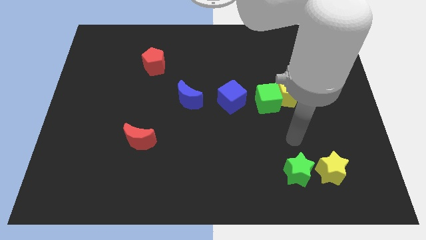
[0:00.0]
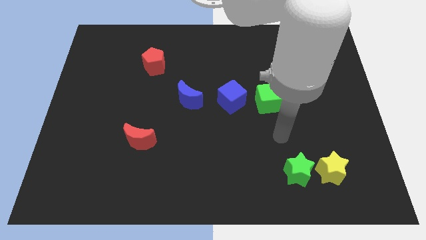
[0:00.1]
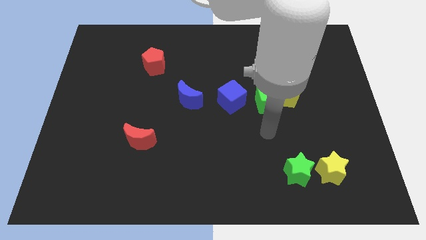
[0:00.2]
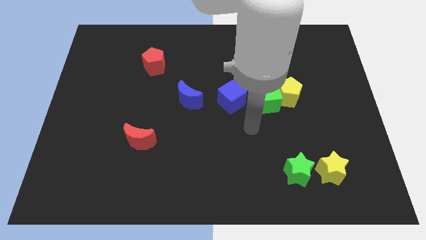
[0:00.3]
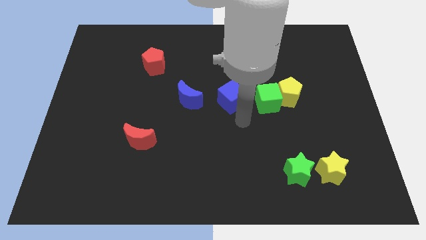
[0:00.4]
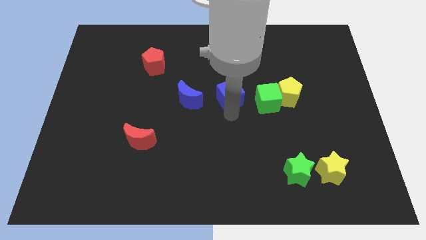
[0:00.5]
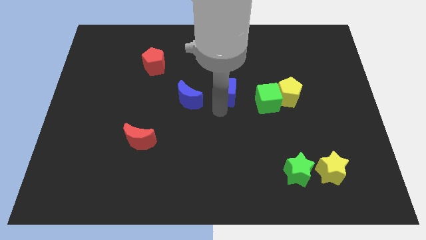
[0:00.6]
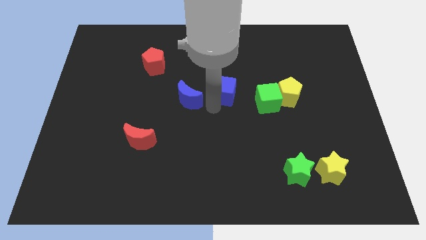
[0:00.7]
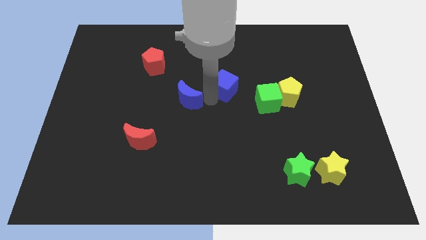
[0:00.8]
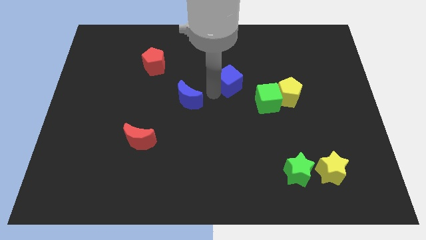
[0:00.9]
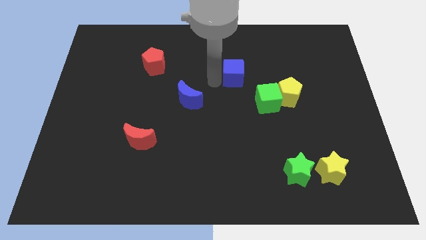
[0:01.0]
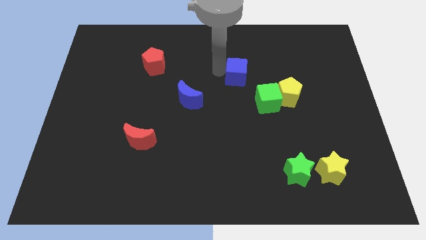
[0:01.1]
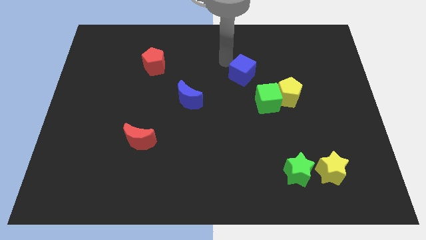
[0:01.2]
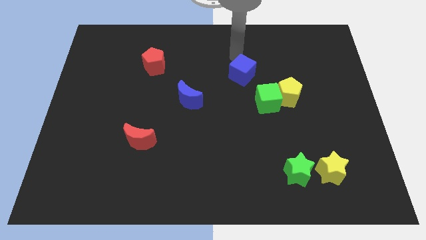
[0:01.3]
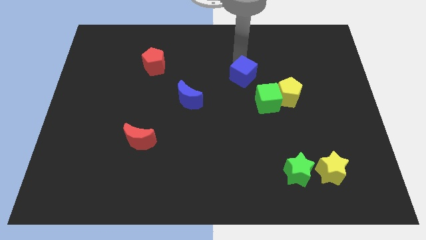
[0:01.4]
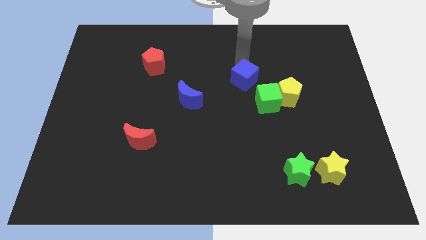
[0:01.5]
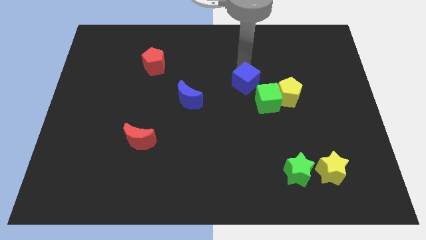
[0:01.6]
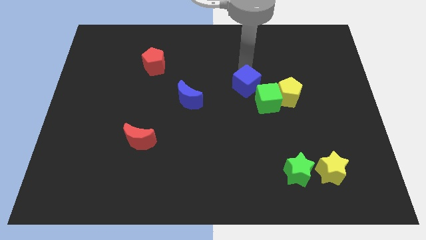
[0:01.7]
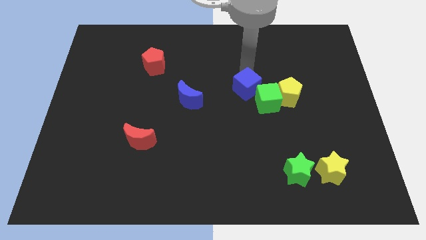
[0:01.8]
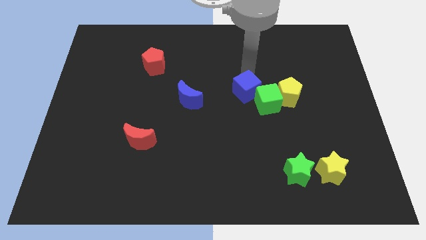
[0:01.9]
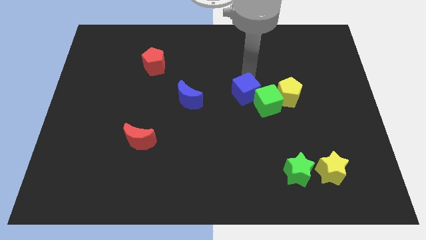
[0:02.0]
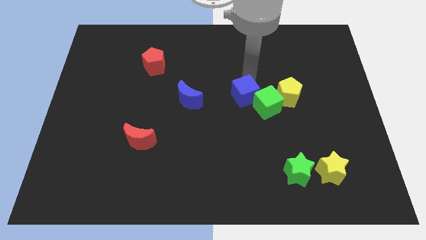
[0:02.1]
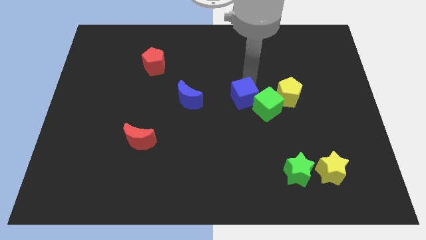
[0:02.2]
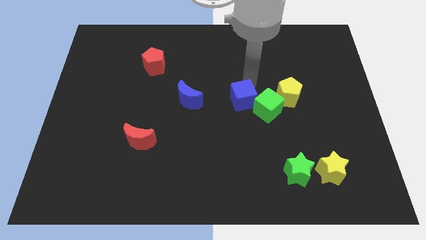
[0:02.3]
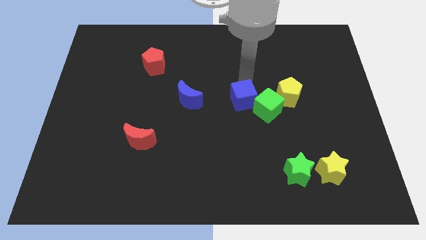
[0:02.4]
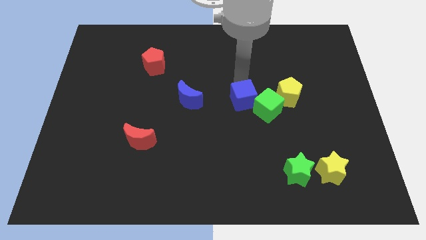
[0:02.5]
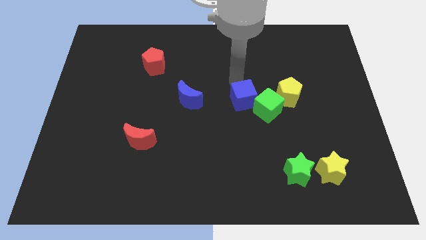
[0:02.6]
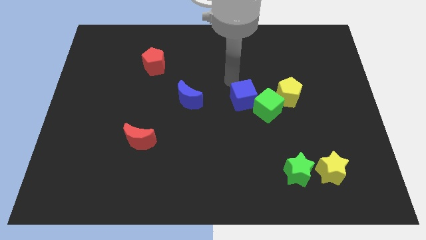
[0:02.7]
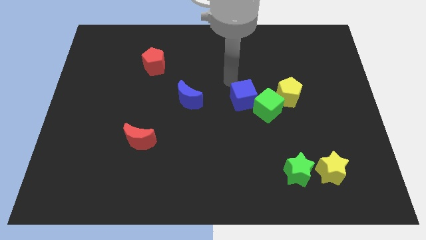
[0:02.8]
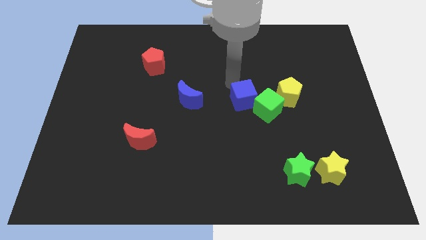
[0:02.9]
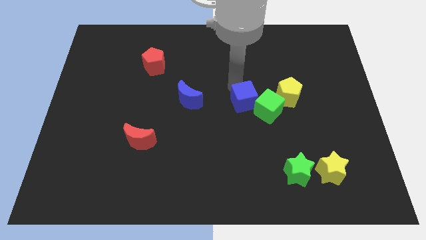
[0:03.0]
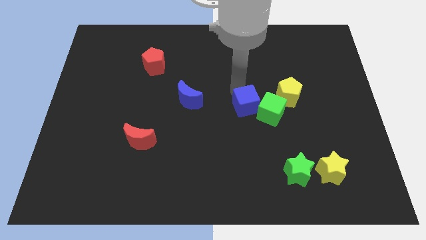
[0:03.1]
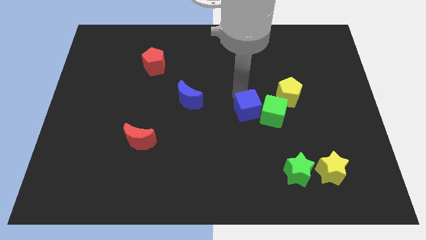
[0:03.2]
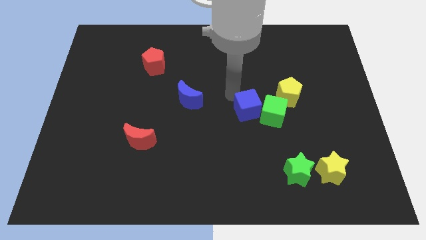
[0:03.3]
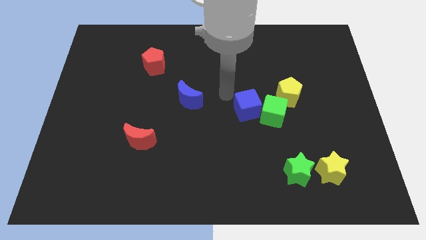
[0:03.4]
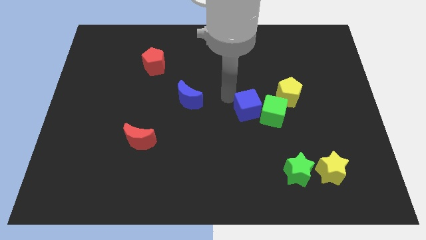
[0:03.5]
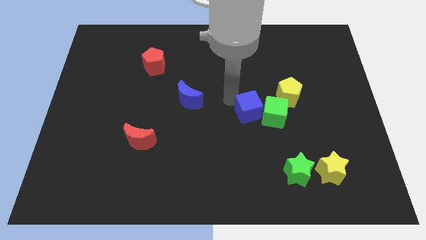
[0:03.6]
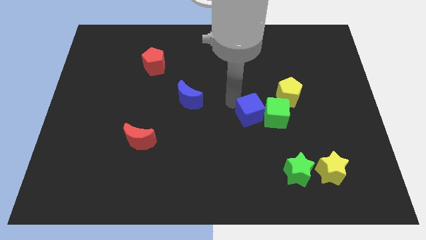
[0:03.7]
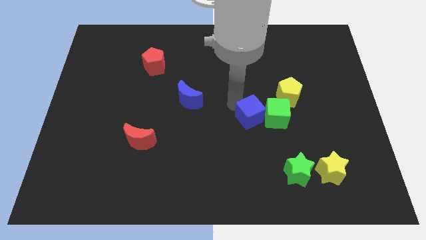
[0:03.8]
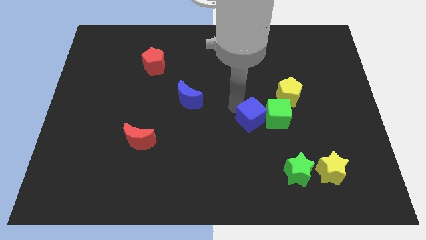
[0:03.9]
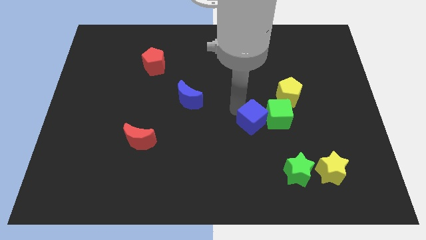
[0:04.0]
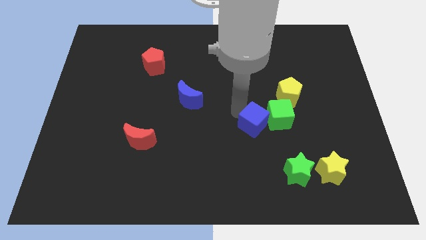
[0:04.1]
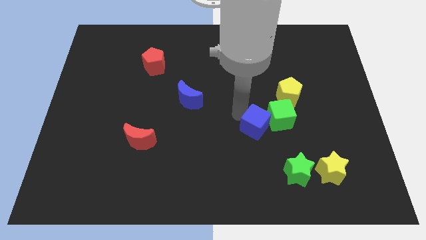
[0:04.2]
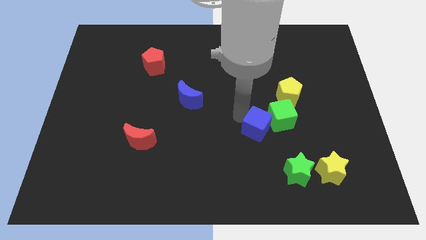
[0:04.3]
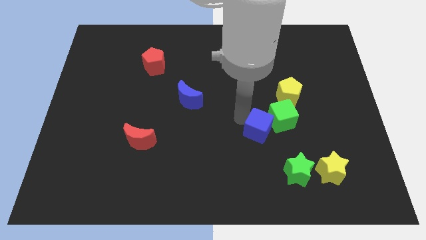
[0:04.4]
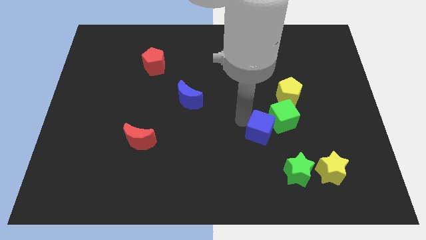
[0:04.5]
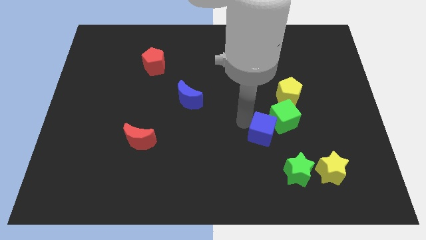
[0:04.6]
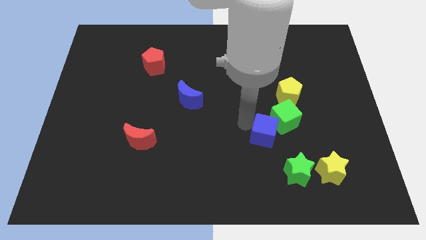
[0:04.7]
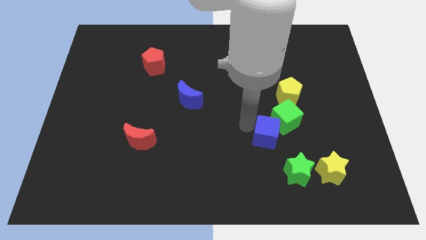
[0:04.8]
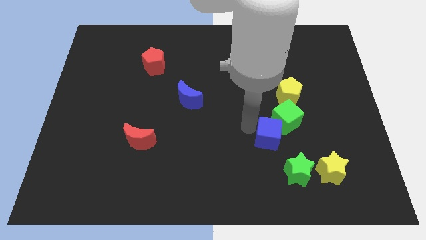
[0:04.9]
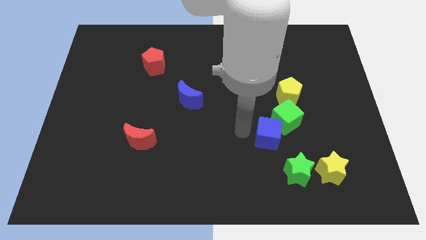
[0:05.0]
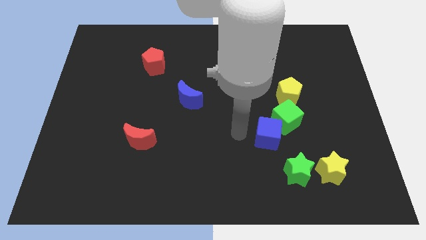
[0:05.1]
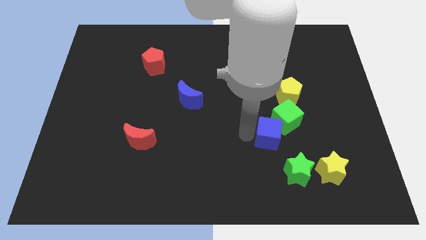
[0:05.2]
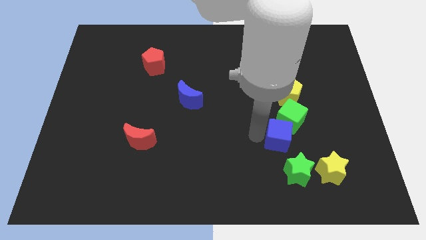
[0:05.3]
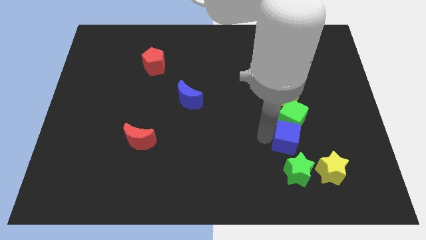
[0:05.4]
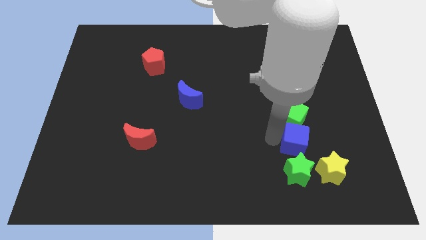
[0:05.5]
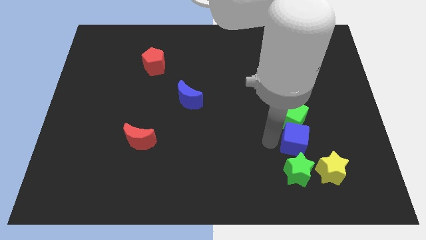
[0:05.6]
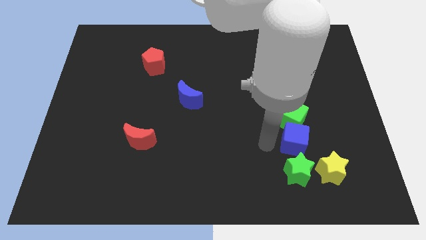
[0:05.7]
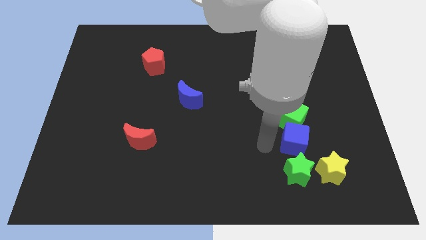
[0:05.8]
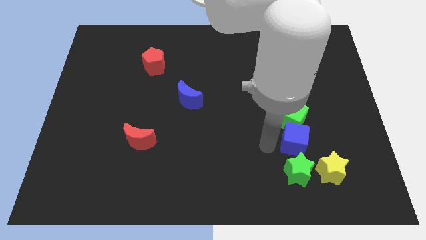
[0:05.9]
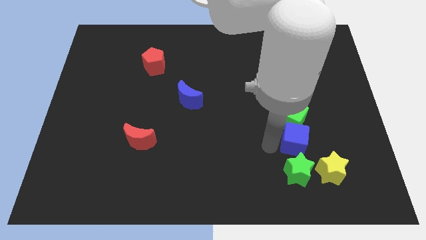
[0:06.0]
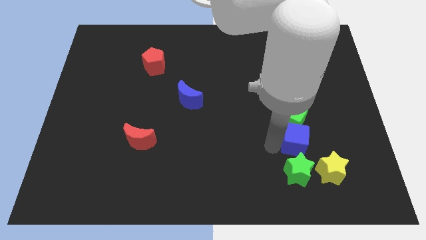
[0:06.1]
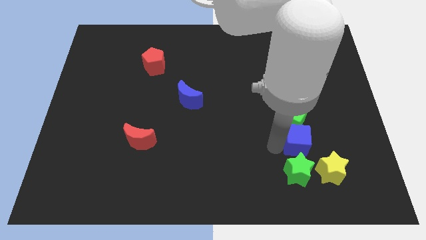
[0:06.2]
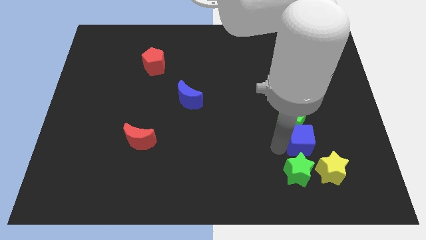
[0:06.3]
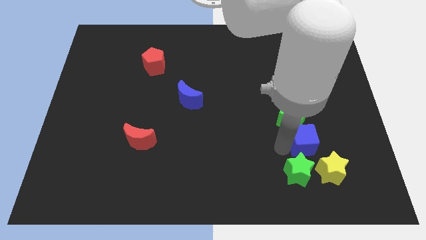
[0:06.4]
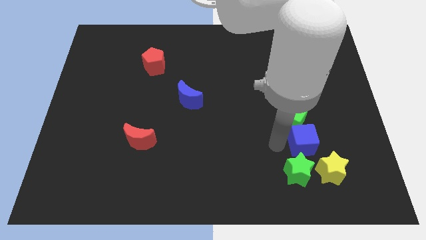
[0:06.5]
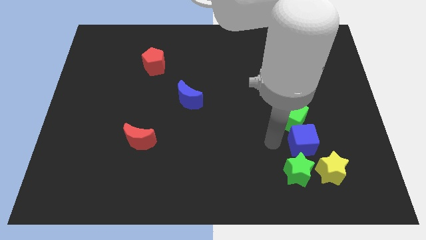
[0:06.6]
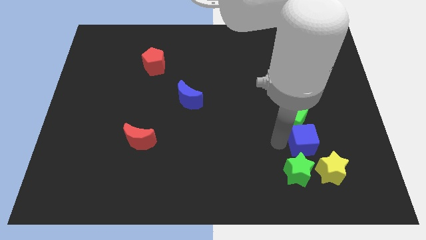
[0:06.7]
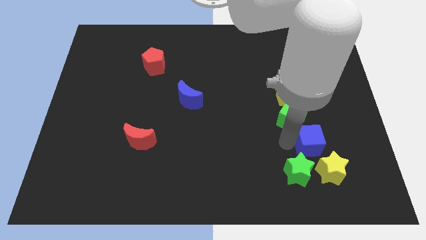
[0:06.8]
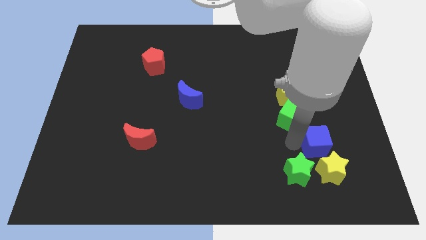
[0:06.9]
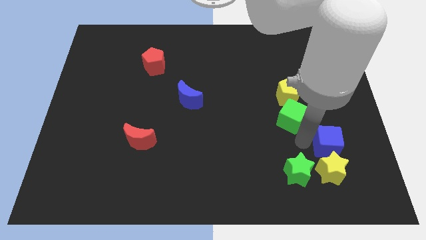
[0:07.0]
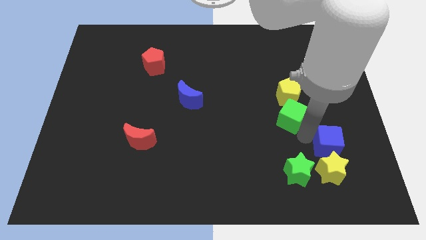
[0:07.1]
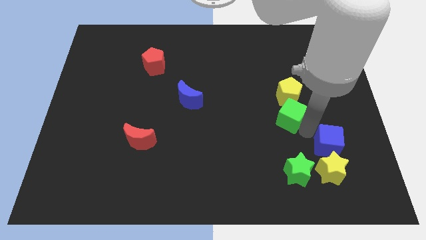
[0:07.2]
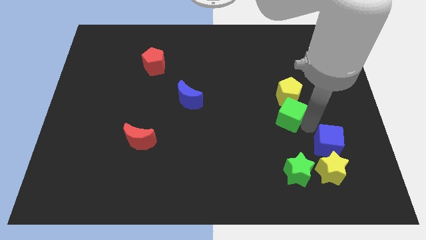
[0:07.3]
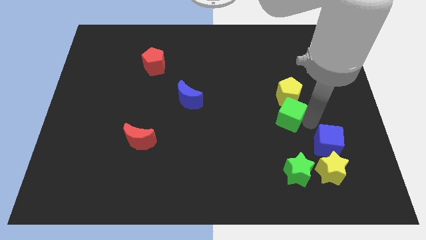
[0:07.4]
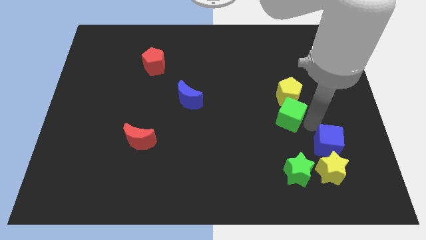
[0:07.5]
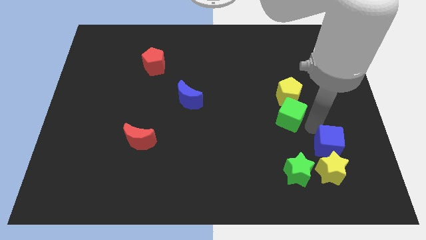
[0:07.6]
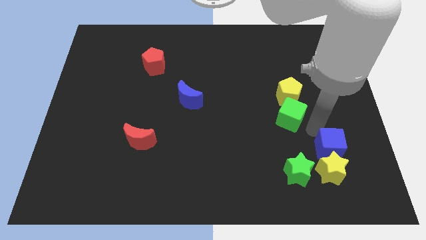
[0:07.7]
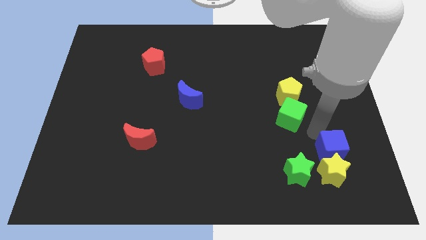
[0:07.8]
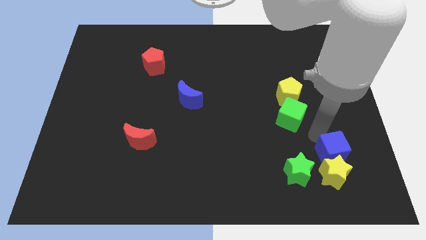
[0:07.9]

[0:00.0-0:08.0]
put the blue cube to the right of the green star
